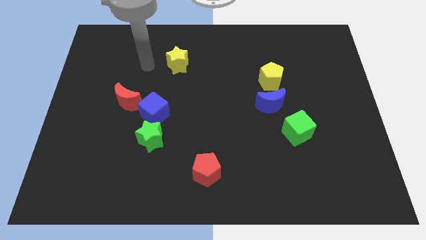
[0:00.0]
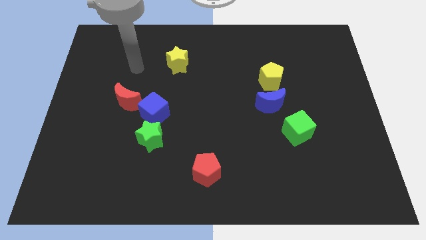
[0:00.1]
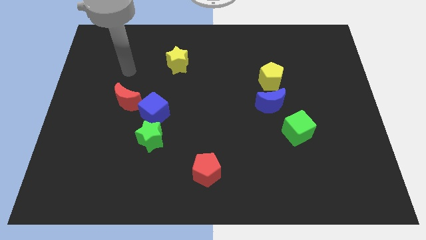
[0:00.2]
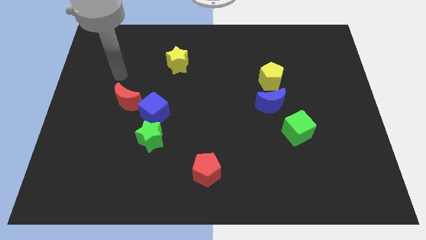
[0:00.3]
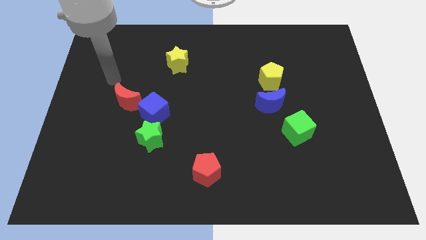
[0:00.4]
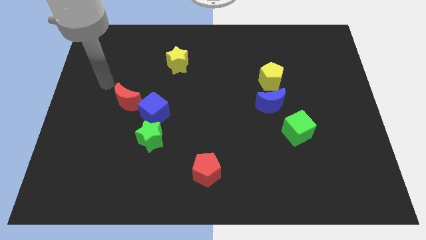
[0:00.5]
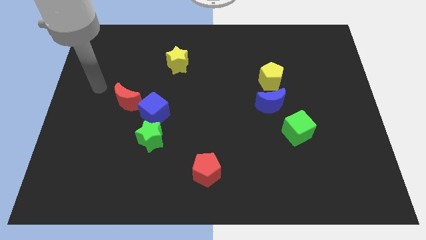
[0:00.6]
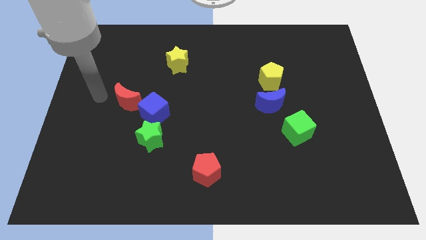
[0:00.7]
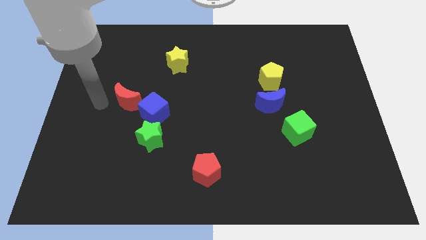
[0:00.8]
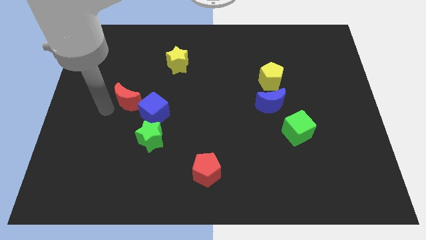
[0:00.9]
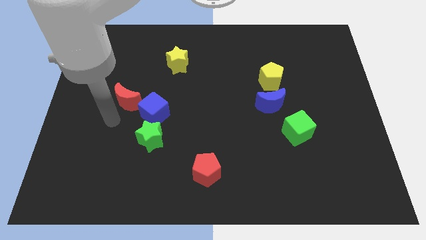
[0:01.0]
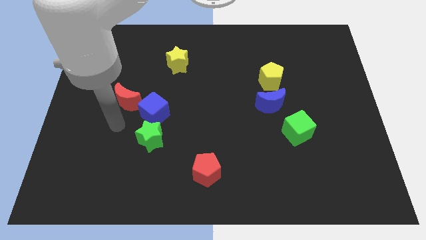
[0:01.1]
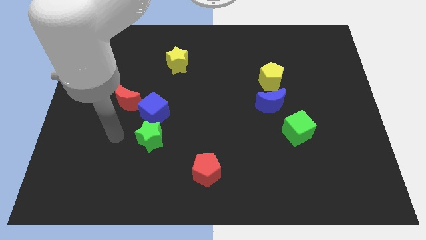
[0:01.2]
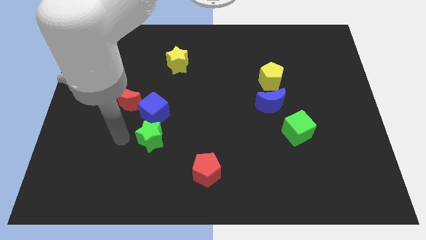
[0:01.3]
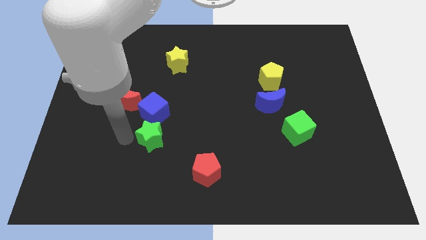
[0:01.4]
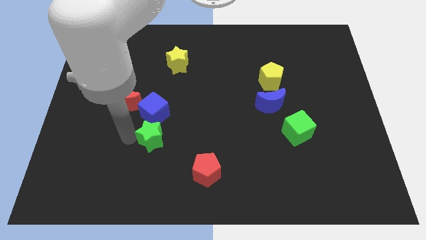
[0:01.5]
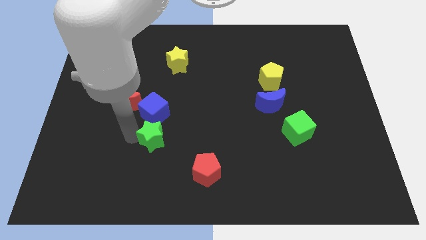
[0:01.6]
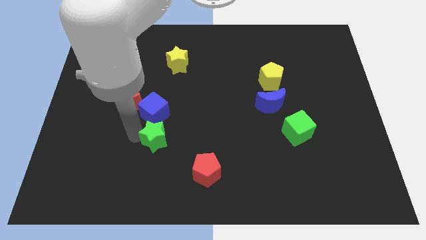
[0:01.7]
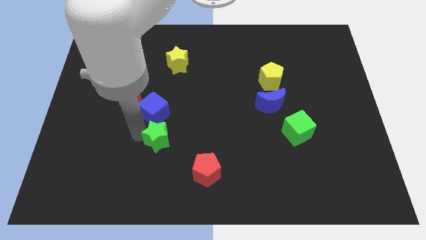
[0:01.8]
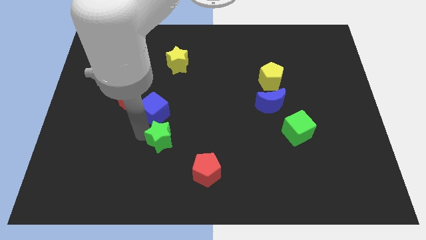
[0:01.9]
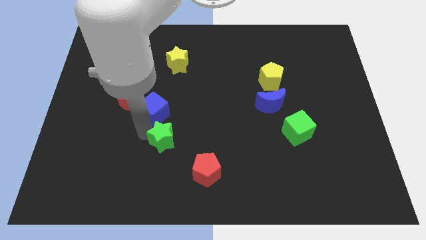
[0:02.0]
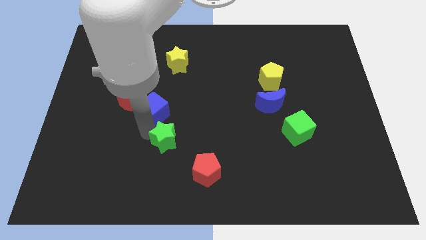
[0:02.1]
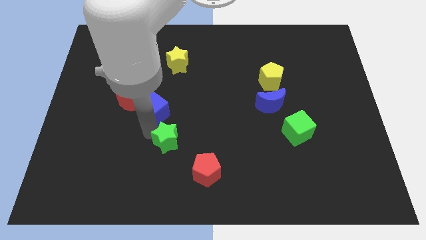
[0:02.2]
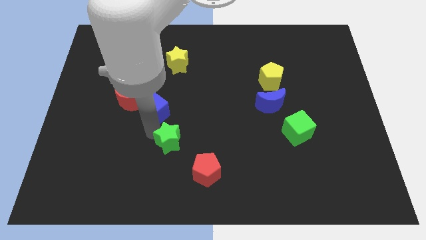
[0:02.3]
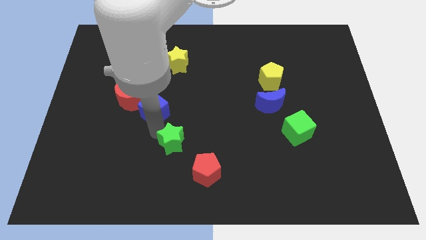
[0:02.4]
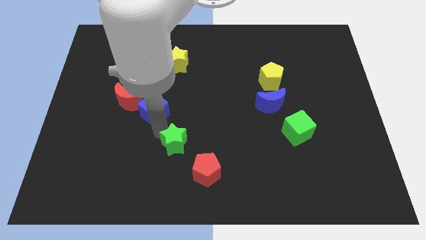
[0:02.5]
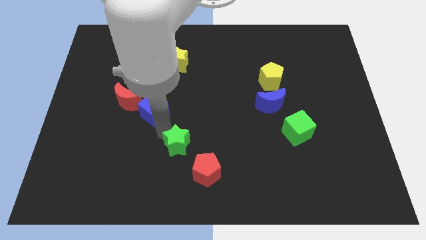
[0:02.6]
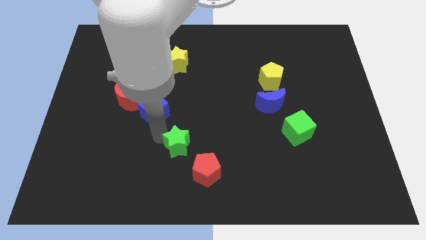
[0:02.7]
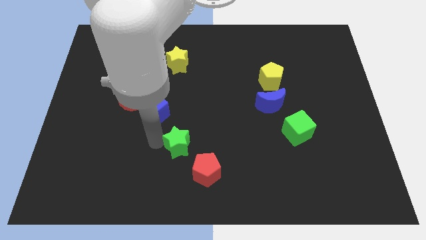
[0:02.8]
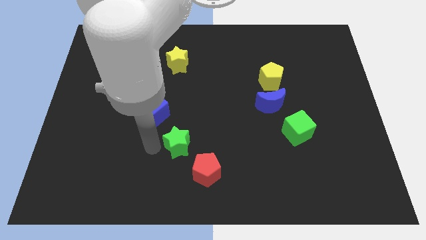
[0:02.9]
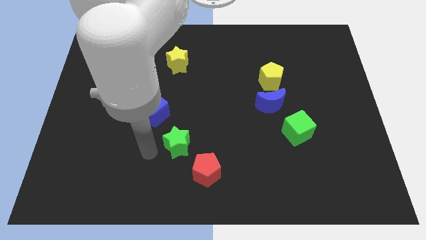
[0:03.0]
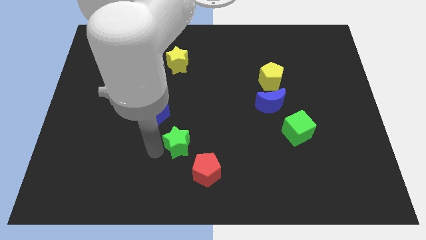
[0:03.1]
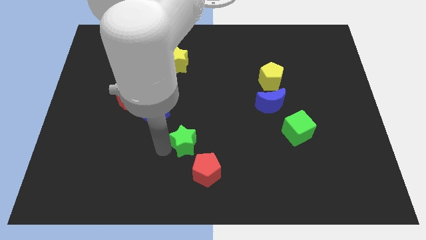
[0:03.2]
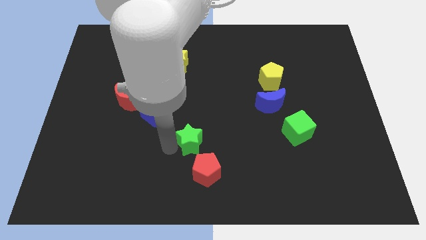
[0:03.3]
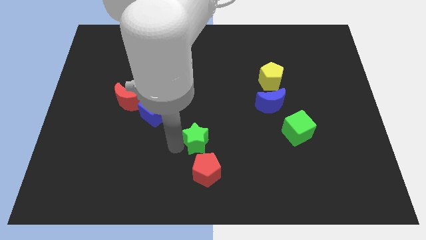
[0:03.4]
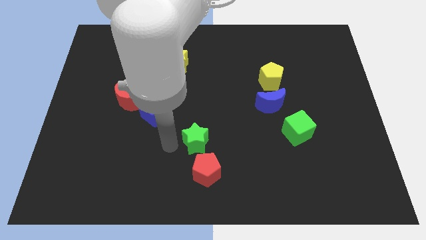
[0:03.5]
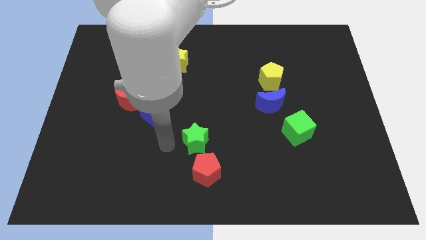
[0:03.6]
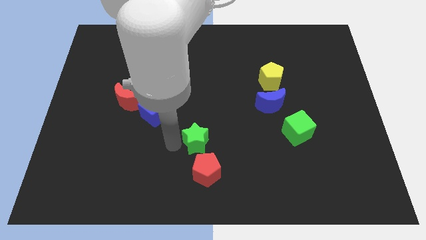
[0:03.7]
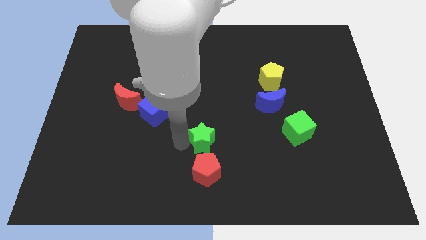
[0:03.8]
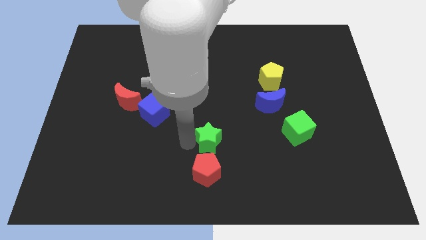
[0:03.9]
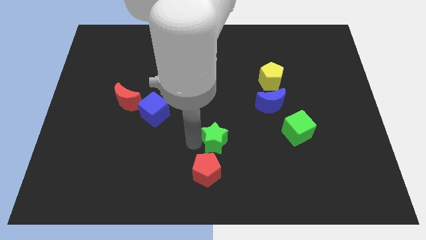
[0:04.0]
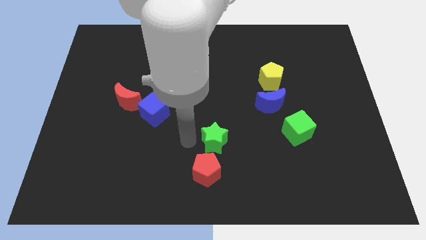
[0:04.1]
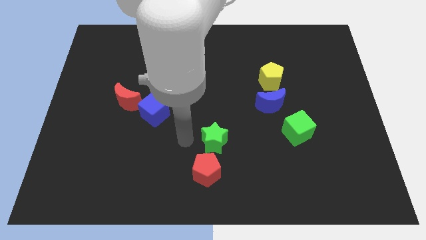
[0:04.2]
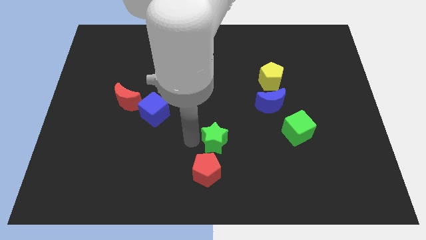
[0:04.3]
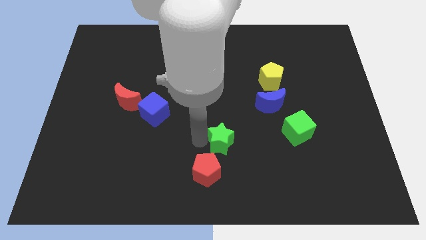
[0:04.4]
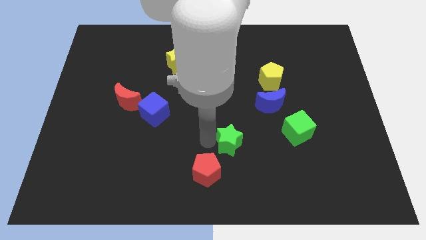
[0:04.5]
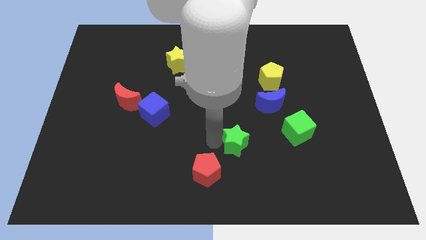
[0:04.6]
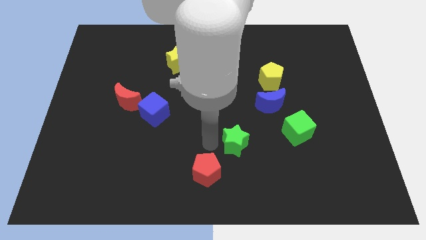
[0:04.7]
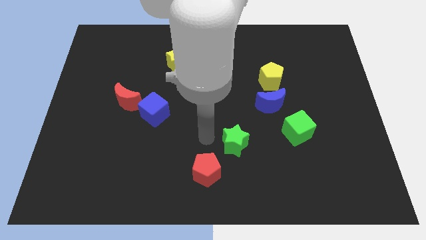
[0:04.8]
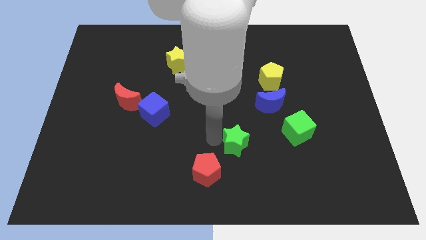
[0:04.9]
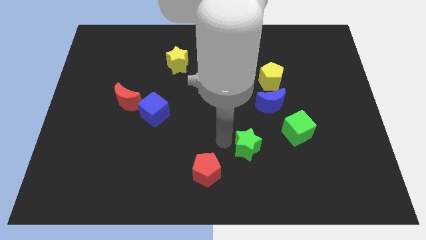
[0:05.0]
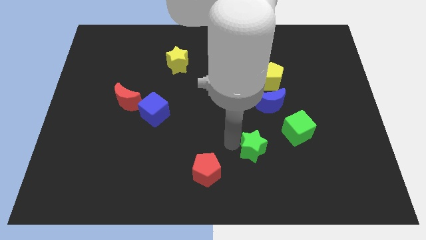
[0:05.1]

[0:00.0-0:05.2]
push the green star to the bottom left side of the green cube

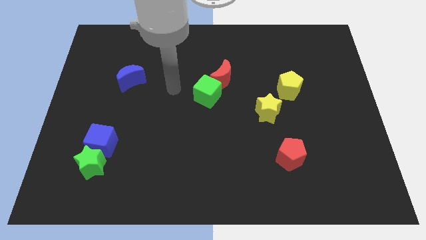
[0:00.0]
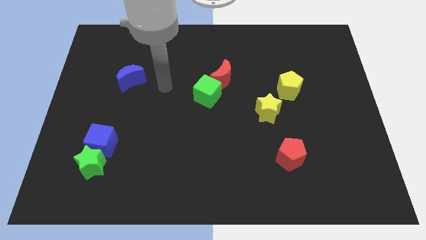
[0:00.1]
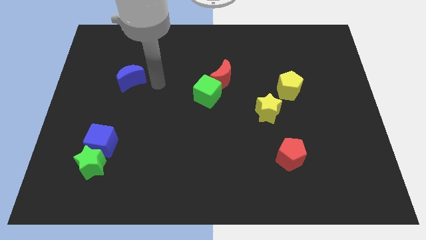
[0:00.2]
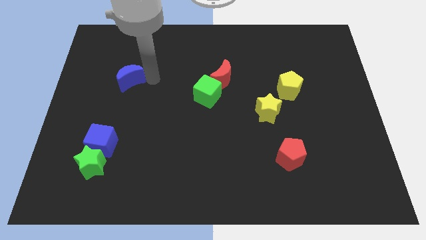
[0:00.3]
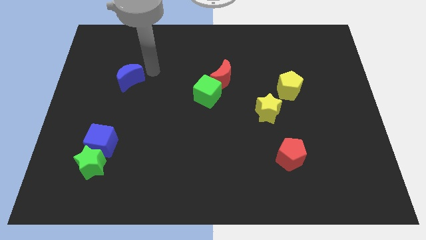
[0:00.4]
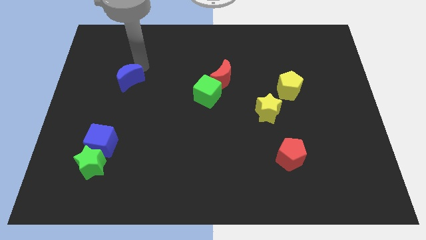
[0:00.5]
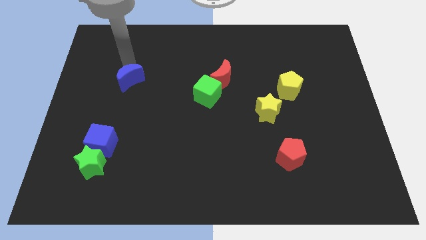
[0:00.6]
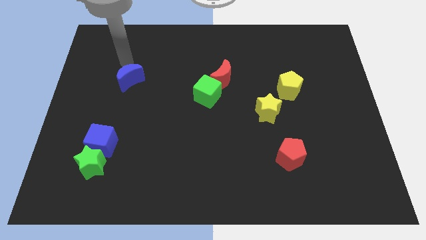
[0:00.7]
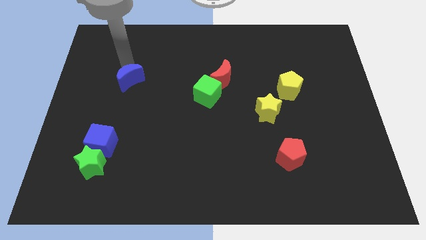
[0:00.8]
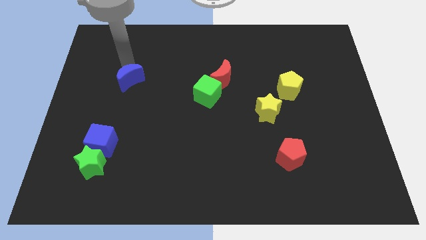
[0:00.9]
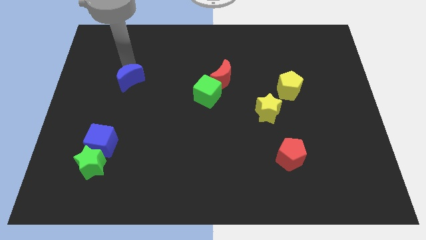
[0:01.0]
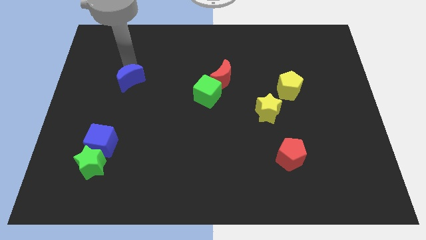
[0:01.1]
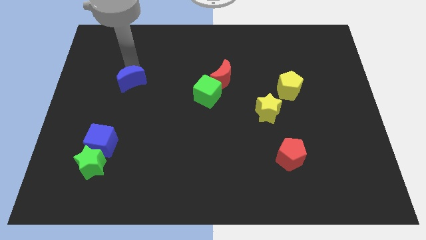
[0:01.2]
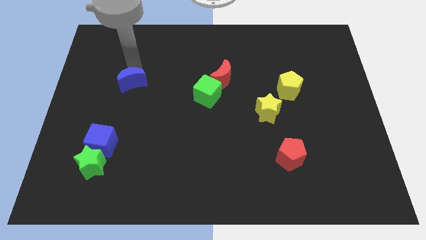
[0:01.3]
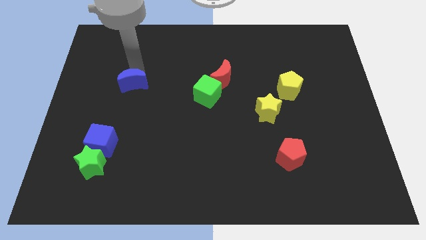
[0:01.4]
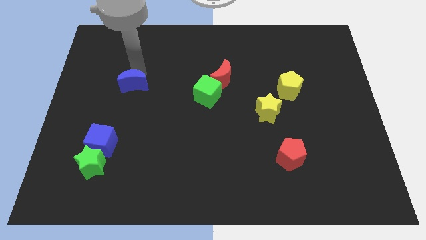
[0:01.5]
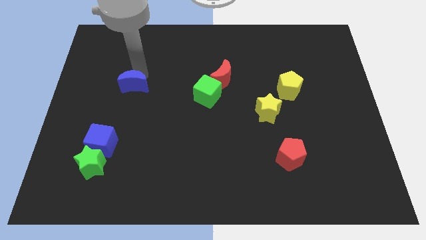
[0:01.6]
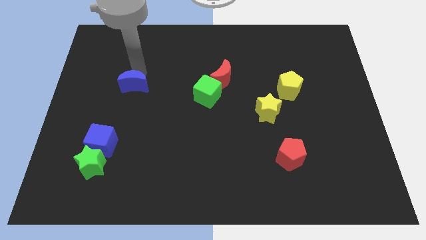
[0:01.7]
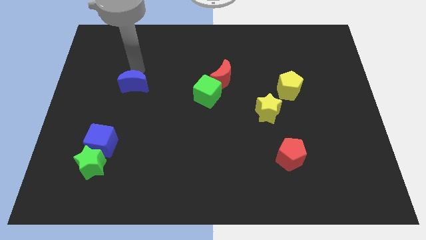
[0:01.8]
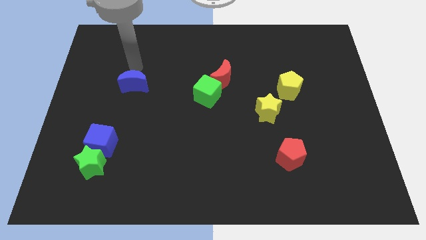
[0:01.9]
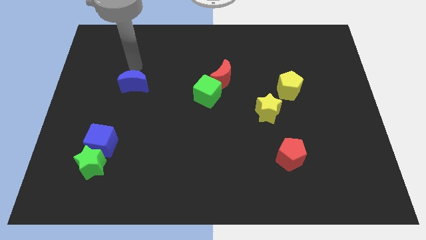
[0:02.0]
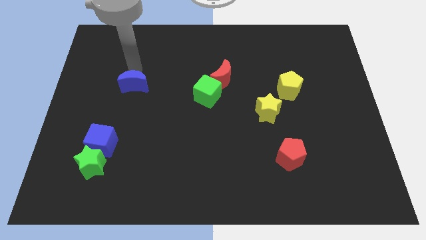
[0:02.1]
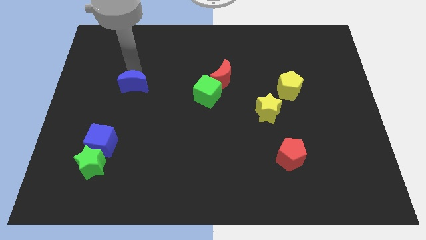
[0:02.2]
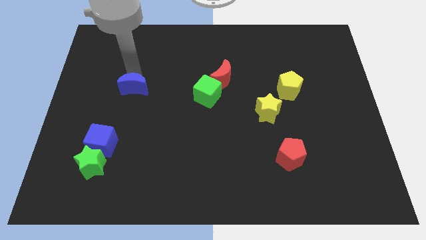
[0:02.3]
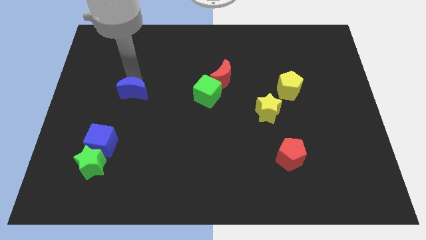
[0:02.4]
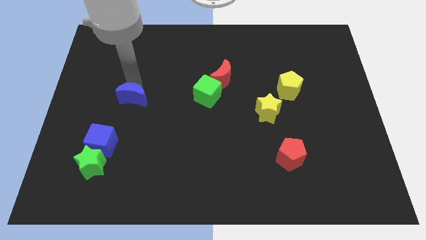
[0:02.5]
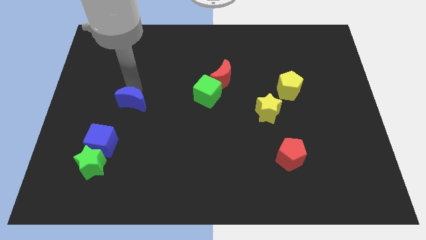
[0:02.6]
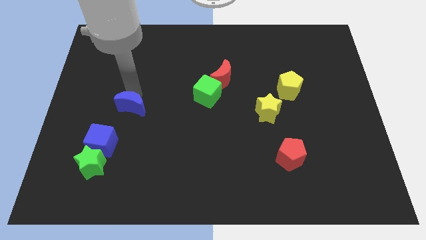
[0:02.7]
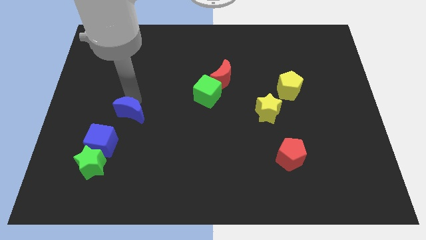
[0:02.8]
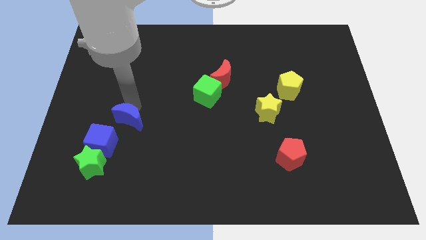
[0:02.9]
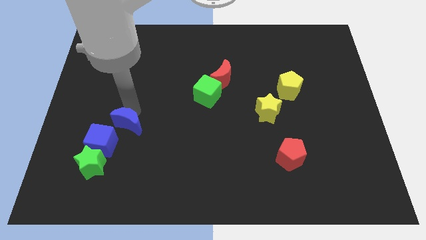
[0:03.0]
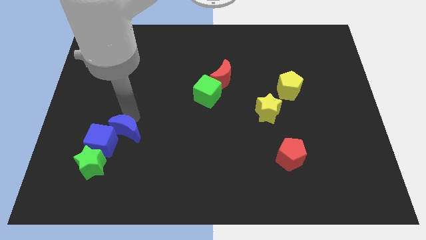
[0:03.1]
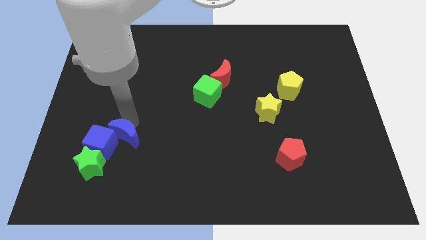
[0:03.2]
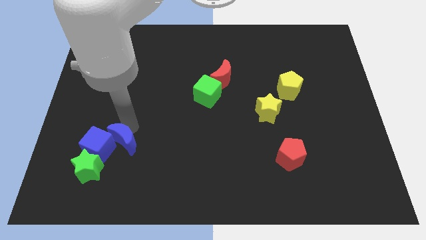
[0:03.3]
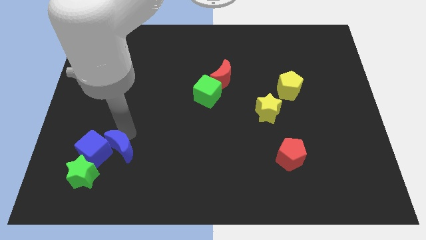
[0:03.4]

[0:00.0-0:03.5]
push the blue moon to the bottom right side of the blue cube
